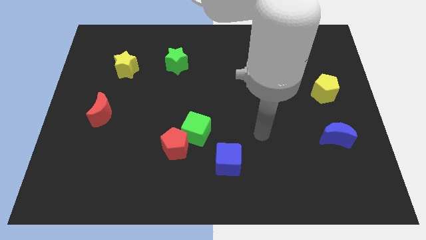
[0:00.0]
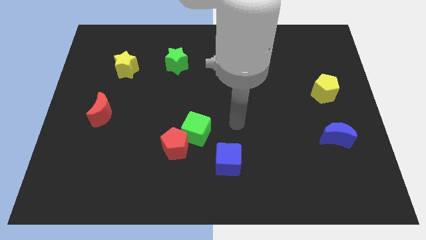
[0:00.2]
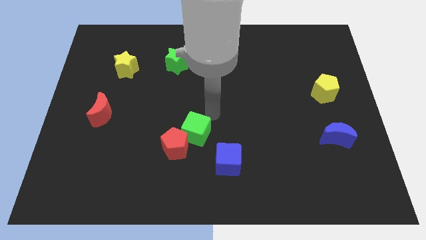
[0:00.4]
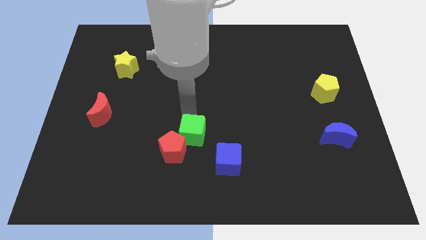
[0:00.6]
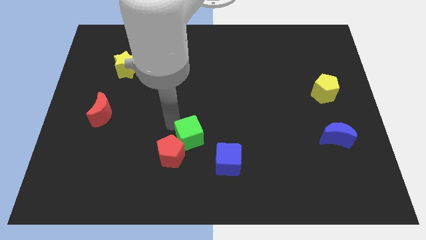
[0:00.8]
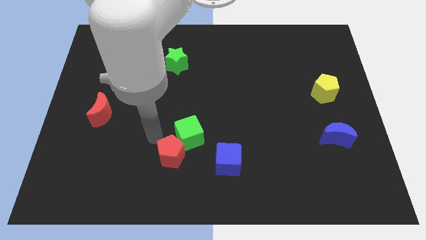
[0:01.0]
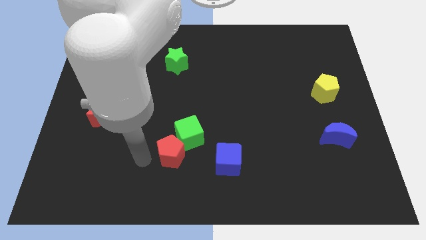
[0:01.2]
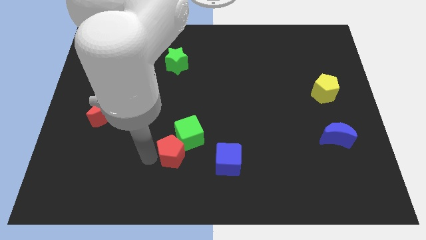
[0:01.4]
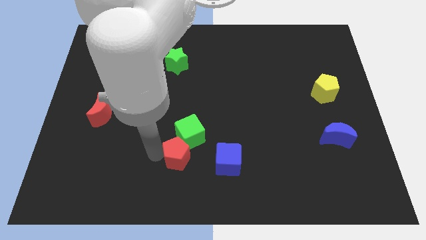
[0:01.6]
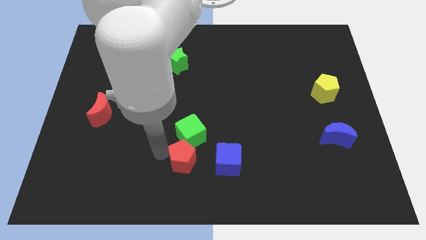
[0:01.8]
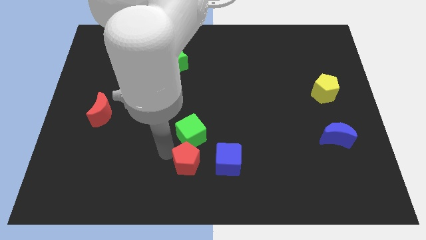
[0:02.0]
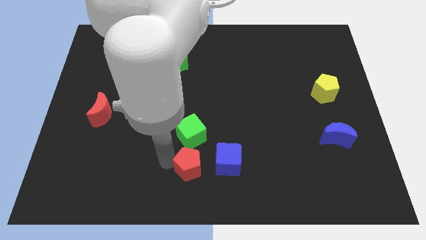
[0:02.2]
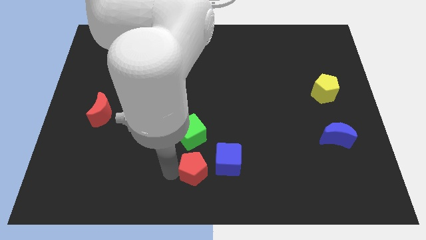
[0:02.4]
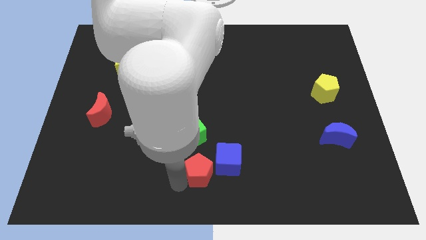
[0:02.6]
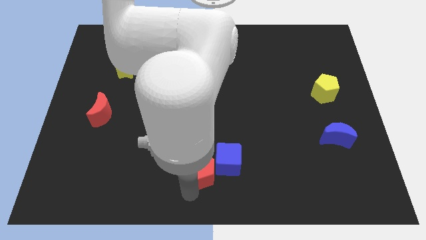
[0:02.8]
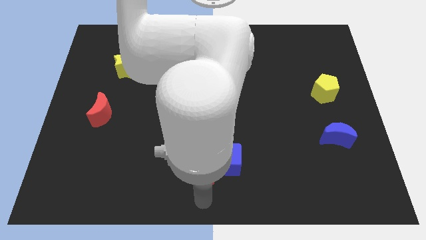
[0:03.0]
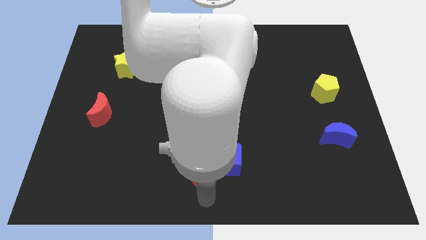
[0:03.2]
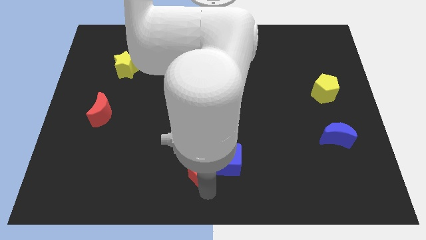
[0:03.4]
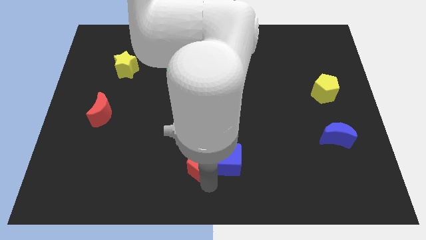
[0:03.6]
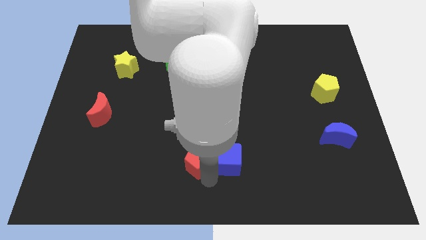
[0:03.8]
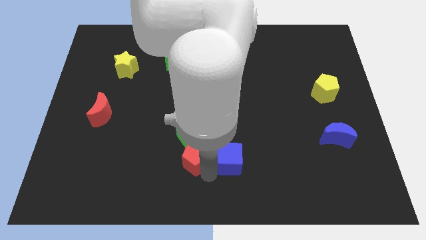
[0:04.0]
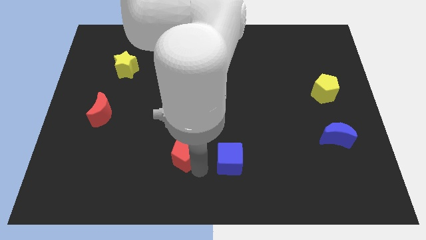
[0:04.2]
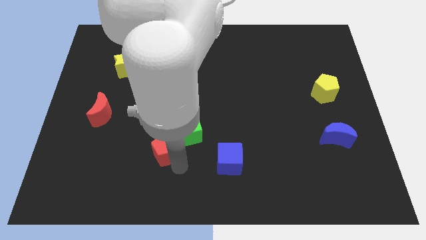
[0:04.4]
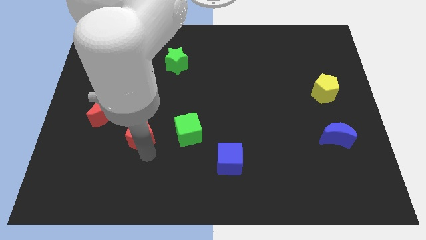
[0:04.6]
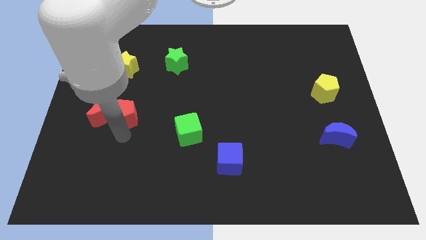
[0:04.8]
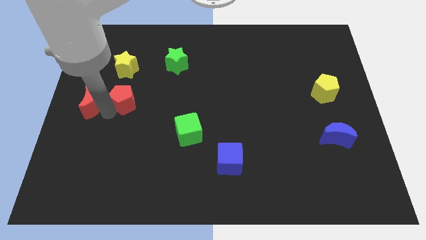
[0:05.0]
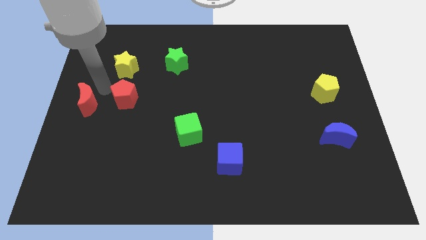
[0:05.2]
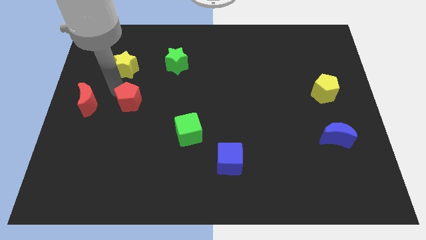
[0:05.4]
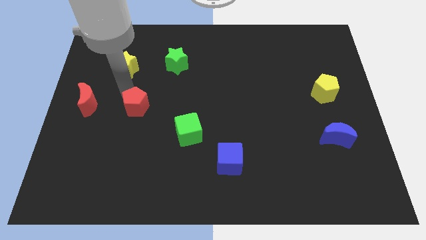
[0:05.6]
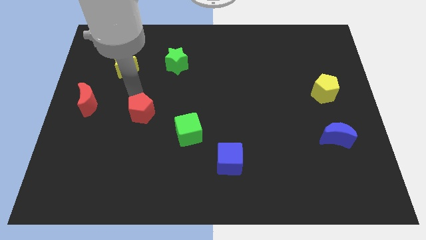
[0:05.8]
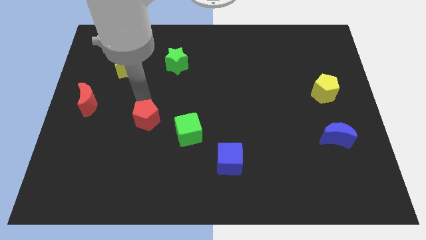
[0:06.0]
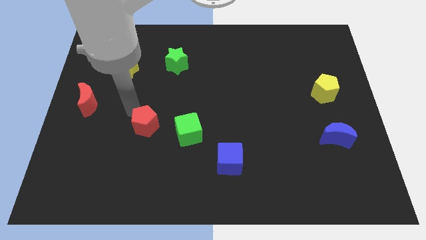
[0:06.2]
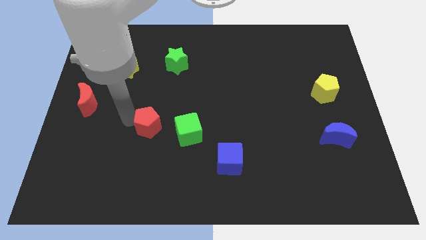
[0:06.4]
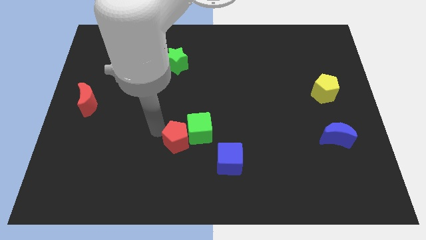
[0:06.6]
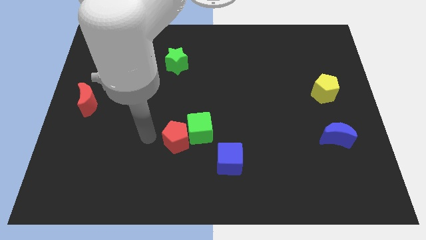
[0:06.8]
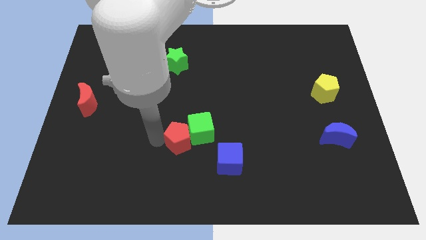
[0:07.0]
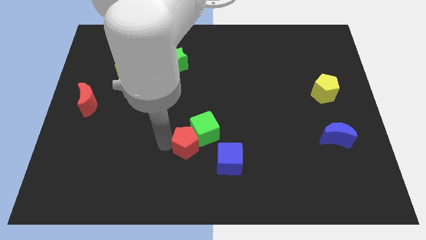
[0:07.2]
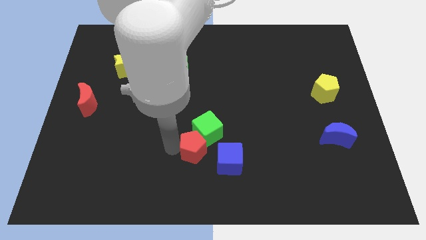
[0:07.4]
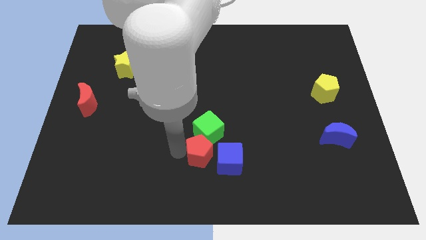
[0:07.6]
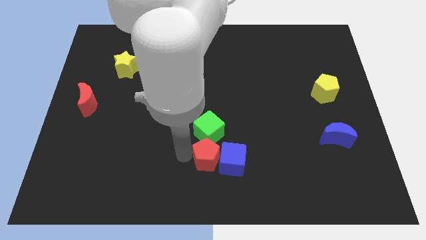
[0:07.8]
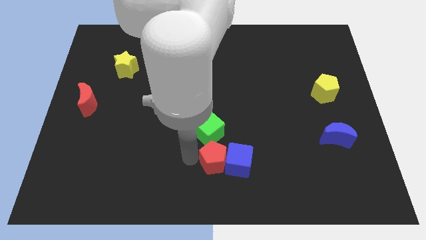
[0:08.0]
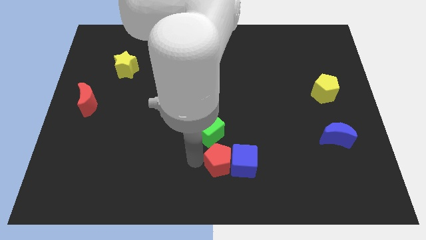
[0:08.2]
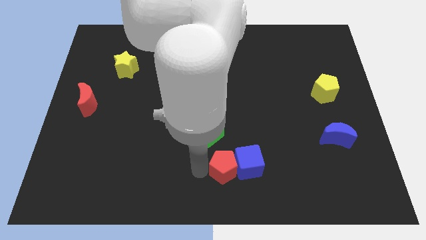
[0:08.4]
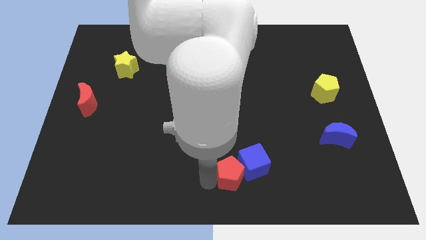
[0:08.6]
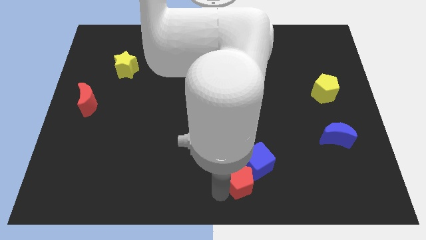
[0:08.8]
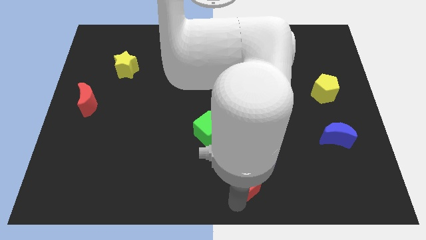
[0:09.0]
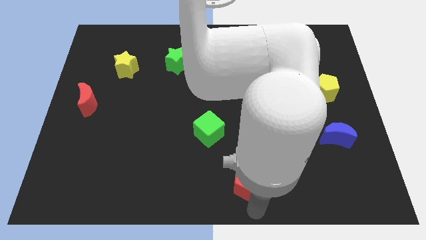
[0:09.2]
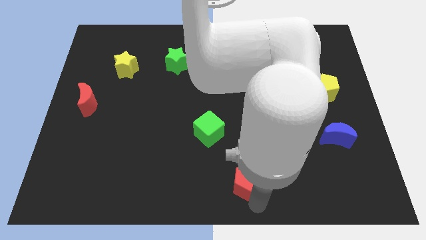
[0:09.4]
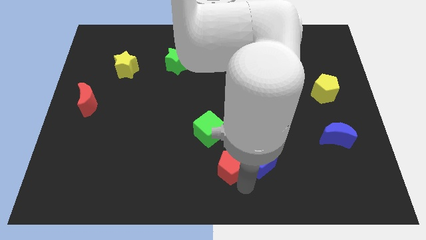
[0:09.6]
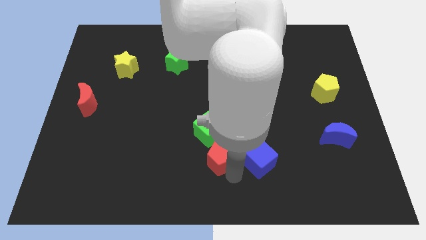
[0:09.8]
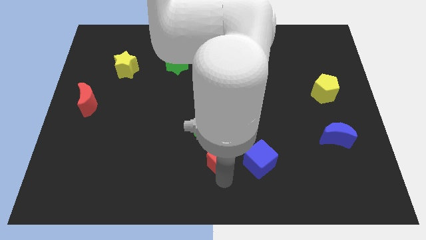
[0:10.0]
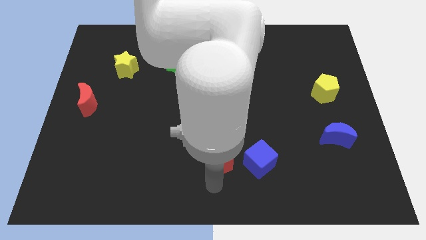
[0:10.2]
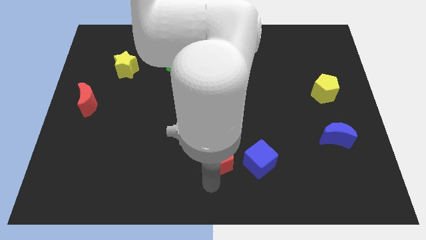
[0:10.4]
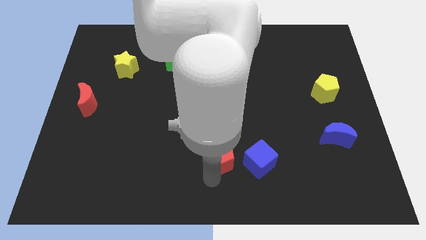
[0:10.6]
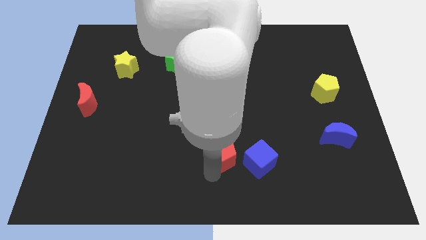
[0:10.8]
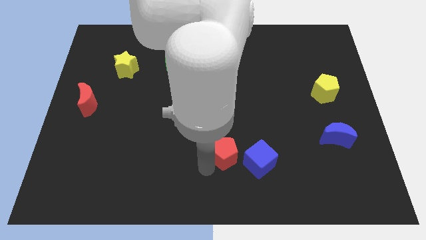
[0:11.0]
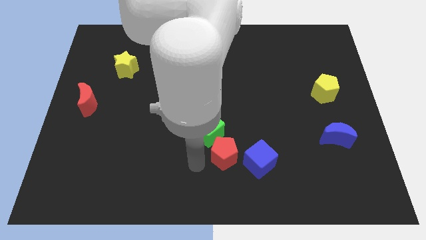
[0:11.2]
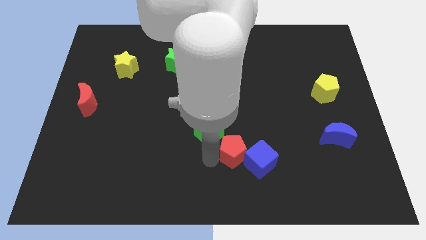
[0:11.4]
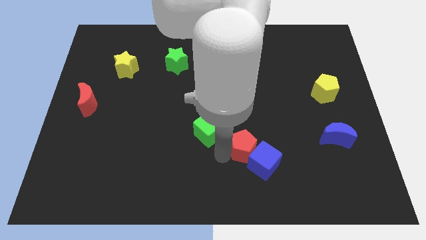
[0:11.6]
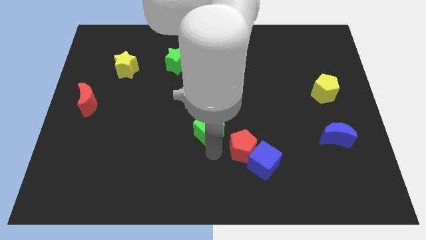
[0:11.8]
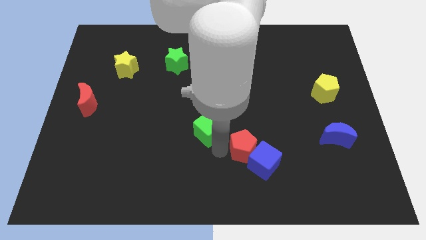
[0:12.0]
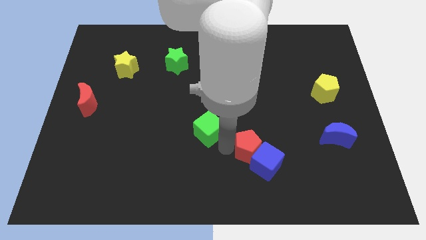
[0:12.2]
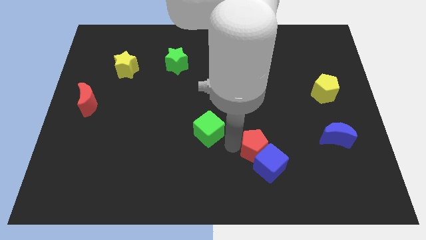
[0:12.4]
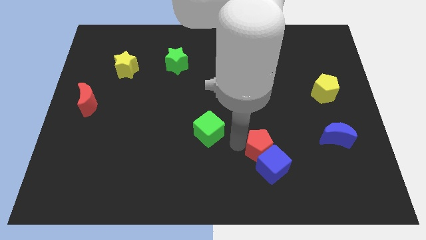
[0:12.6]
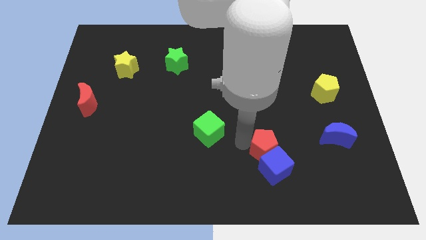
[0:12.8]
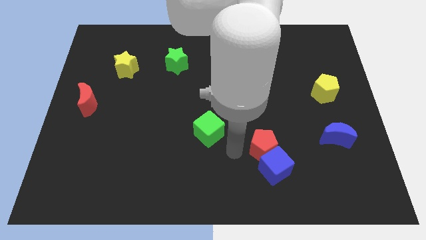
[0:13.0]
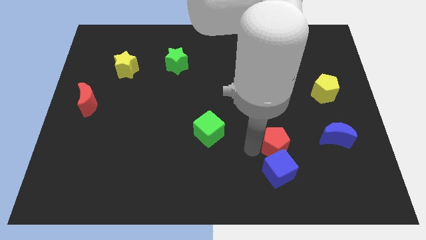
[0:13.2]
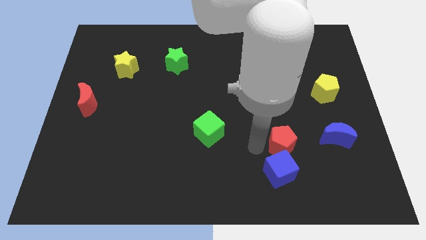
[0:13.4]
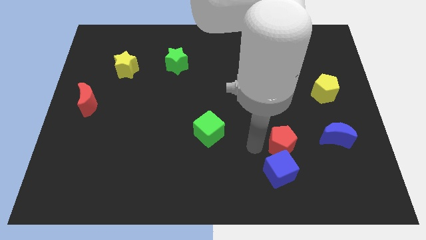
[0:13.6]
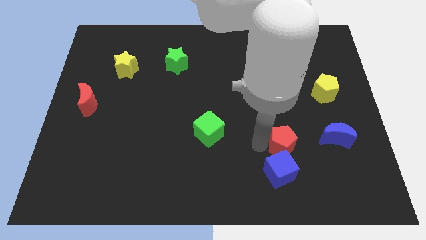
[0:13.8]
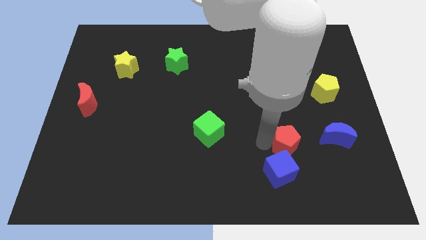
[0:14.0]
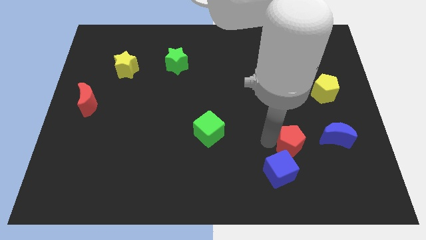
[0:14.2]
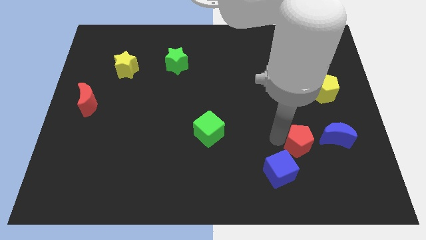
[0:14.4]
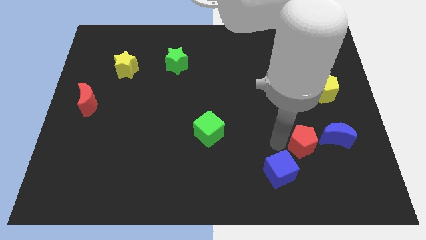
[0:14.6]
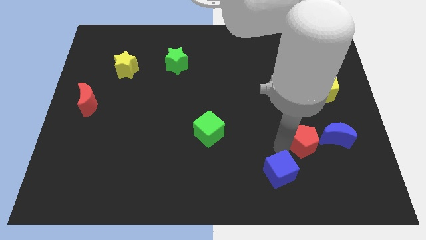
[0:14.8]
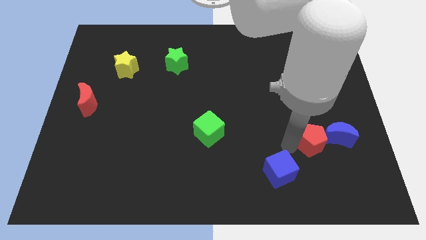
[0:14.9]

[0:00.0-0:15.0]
push the red pentagon towards the blue moon

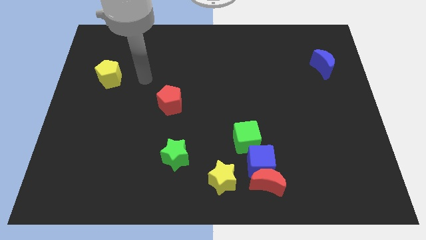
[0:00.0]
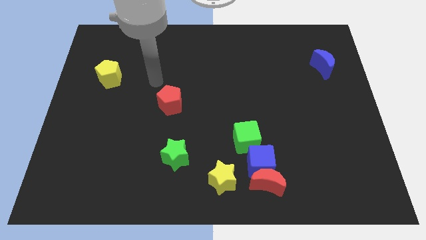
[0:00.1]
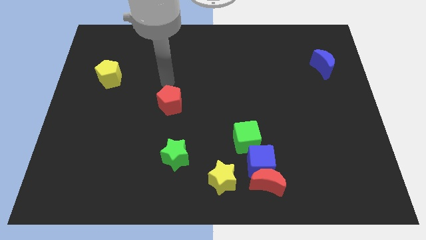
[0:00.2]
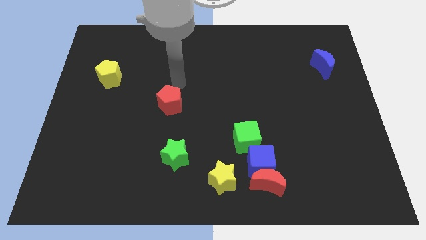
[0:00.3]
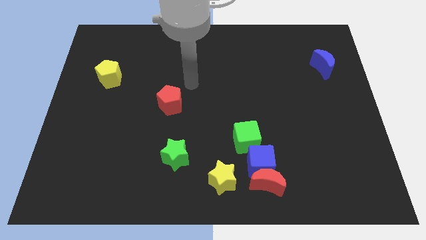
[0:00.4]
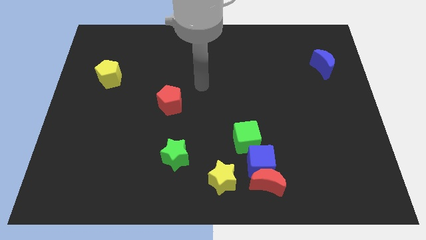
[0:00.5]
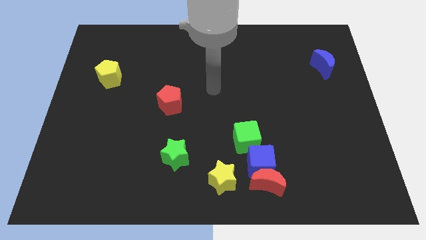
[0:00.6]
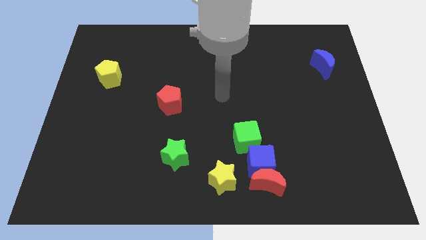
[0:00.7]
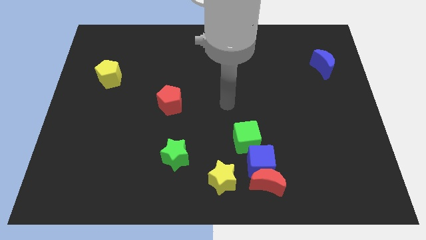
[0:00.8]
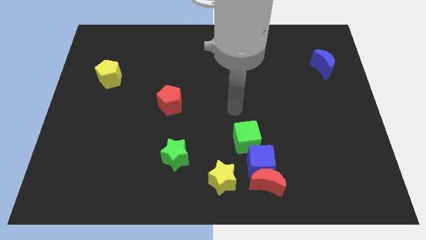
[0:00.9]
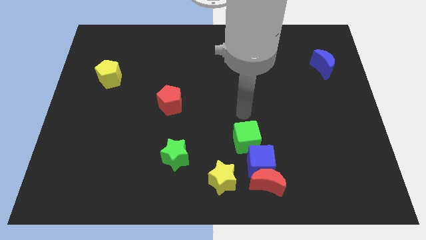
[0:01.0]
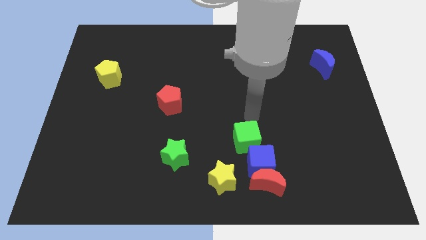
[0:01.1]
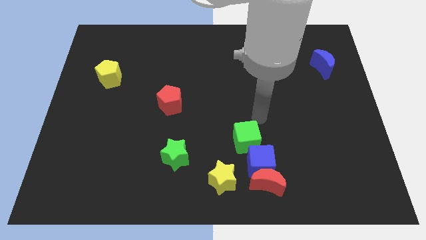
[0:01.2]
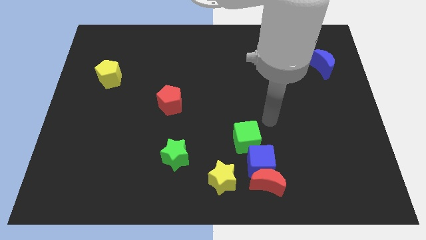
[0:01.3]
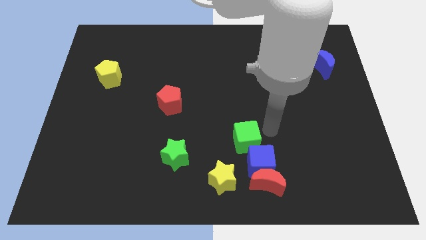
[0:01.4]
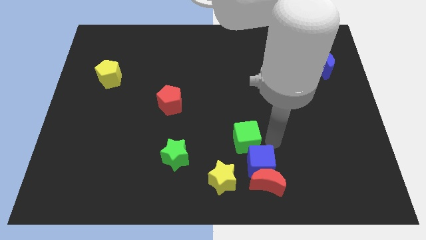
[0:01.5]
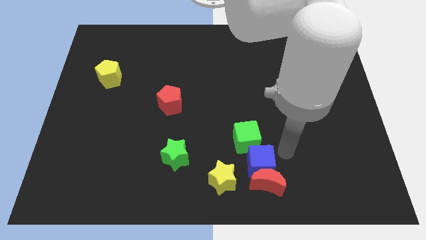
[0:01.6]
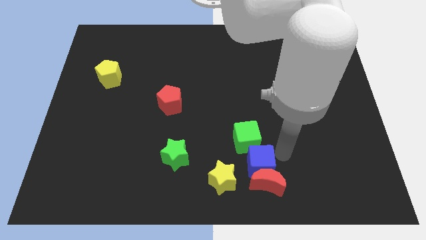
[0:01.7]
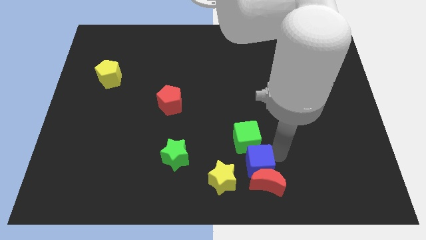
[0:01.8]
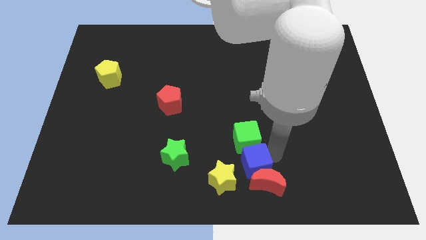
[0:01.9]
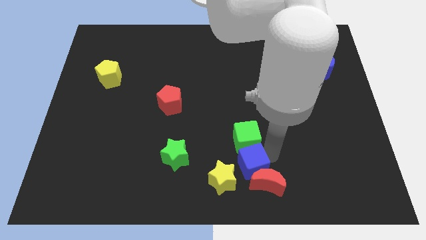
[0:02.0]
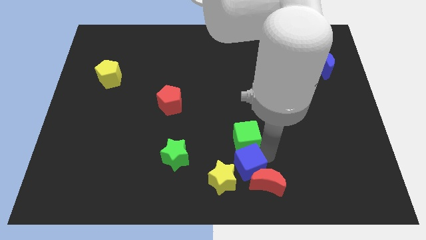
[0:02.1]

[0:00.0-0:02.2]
slide the blue cube towards the yellow star
